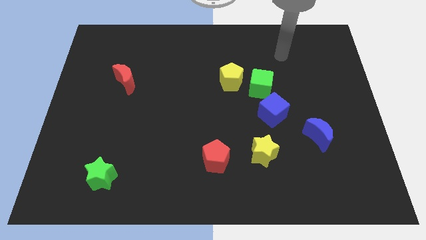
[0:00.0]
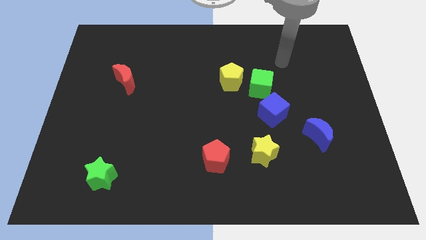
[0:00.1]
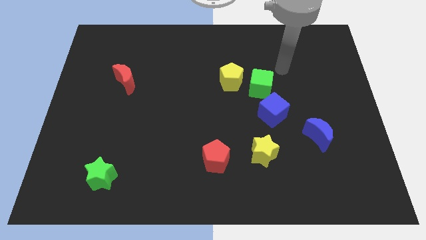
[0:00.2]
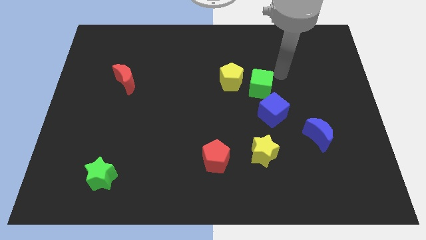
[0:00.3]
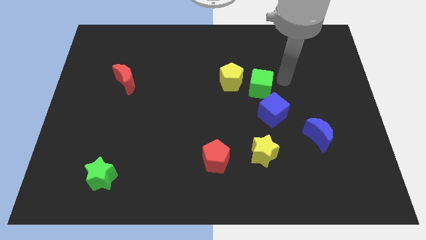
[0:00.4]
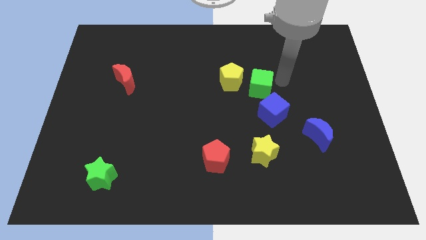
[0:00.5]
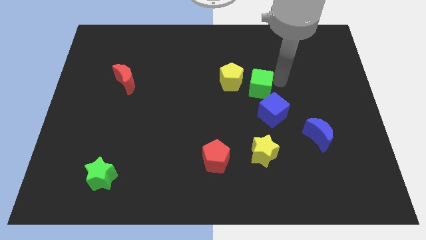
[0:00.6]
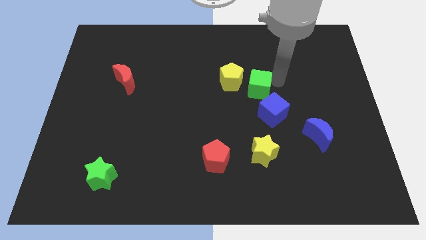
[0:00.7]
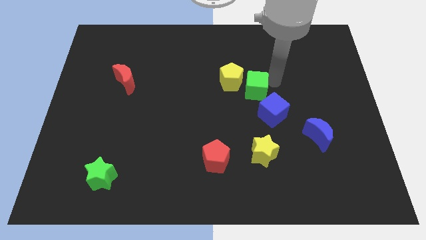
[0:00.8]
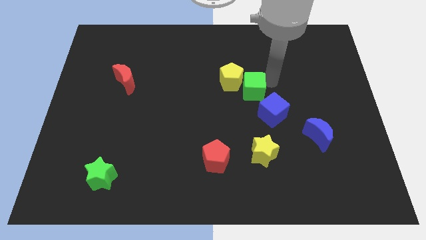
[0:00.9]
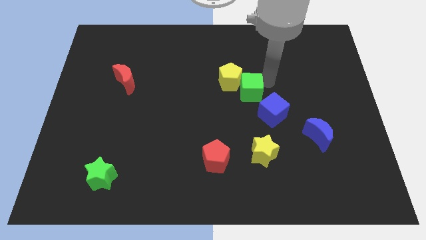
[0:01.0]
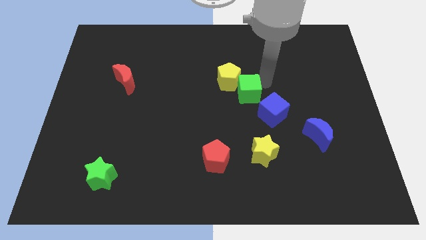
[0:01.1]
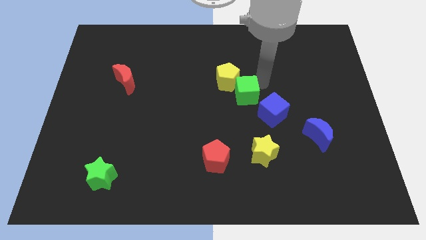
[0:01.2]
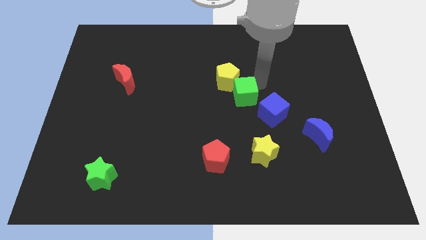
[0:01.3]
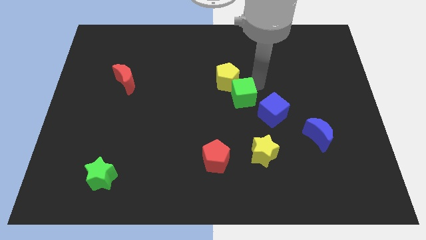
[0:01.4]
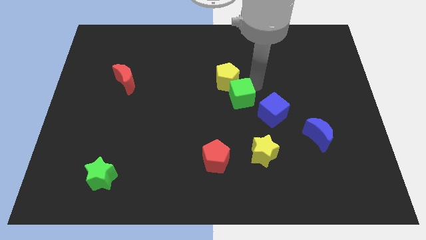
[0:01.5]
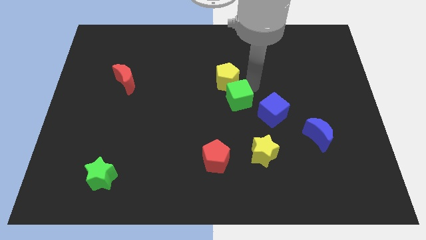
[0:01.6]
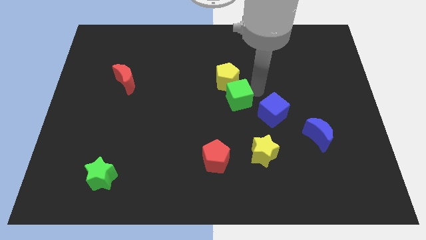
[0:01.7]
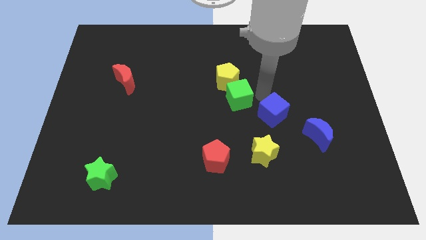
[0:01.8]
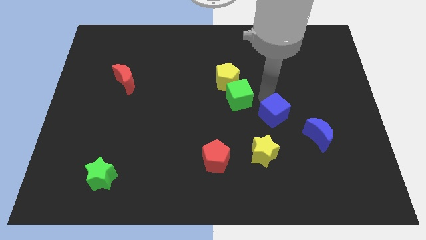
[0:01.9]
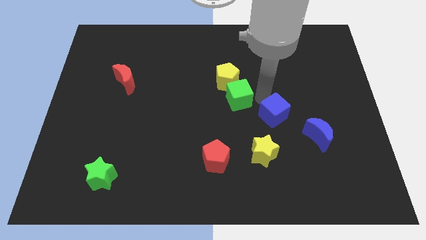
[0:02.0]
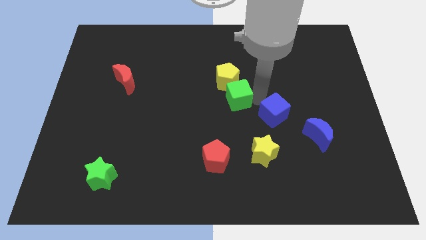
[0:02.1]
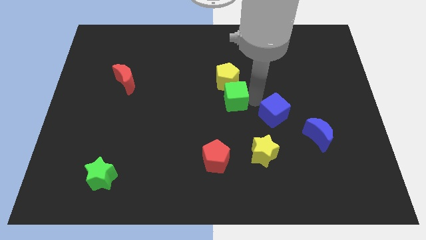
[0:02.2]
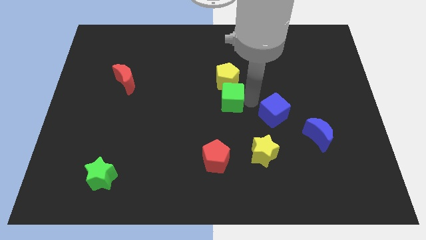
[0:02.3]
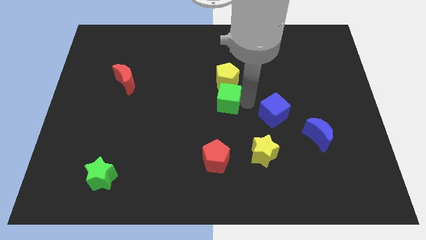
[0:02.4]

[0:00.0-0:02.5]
move the green cube a little bit left

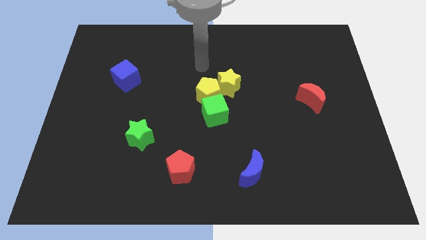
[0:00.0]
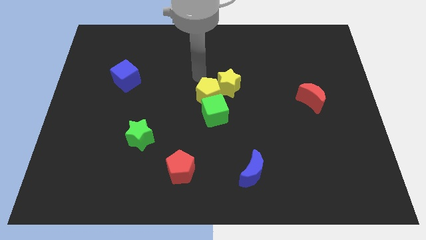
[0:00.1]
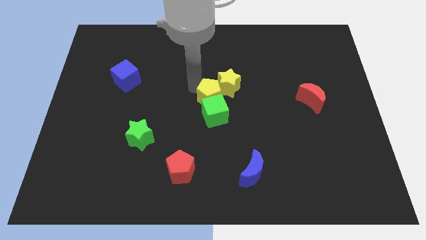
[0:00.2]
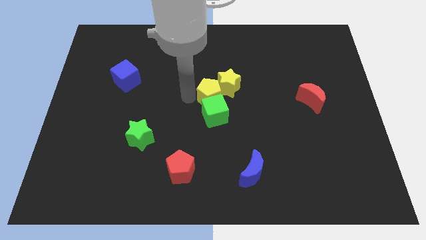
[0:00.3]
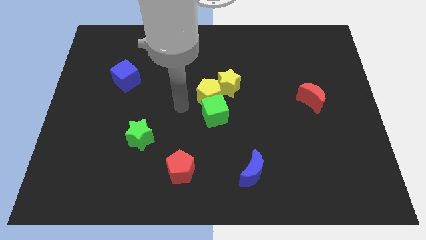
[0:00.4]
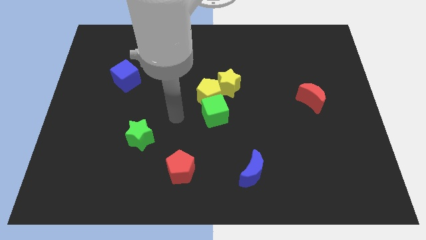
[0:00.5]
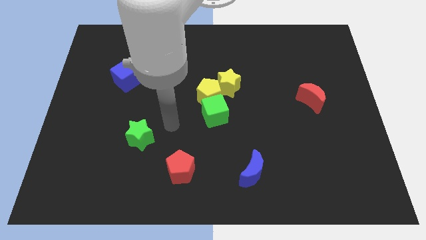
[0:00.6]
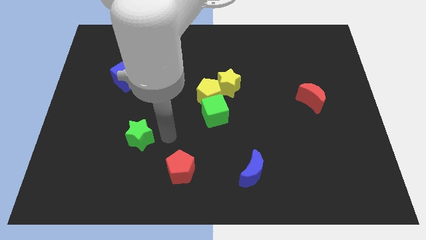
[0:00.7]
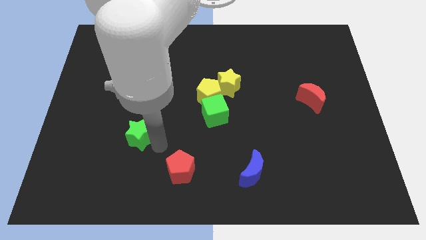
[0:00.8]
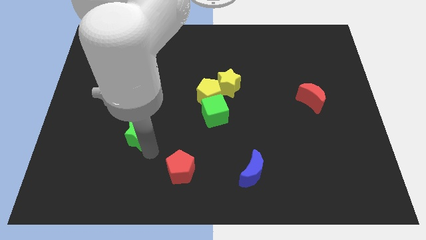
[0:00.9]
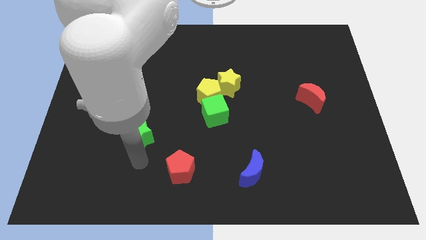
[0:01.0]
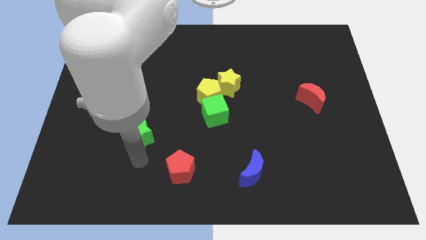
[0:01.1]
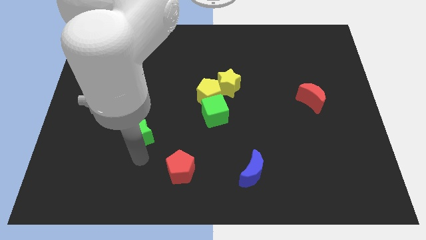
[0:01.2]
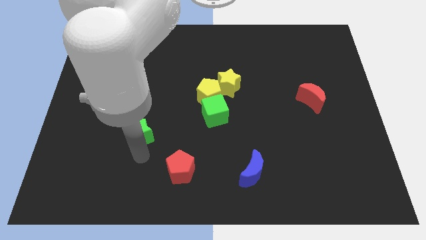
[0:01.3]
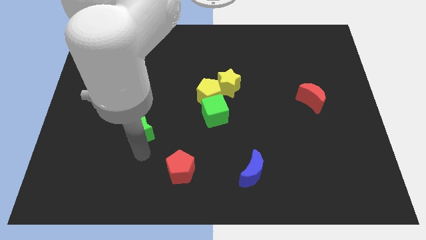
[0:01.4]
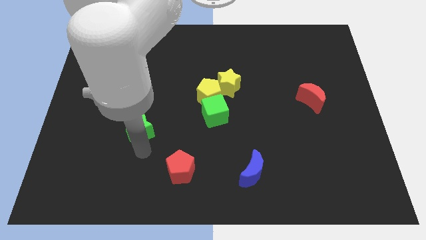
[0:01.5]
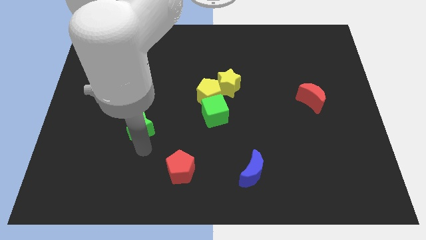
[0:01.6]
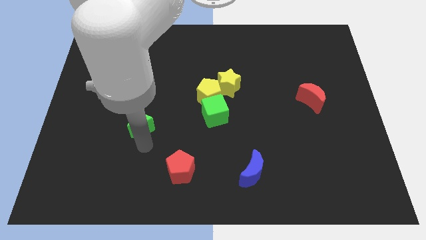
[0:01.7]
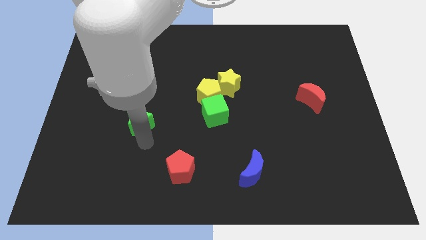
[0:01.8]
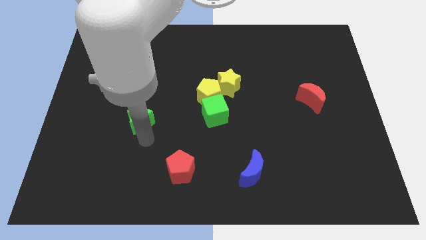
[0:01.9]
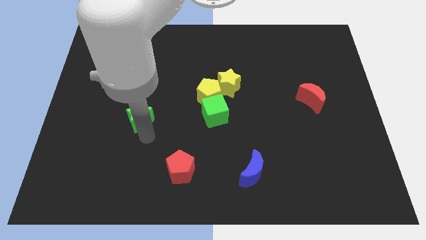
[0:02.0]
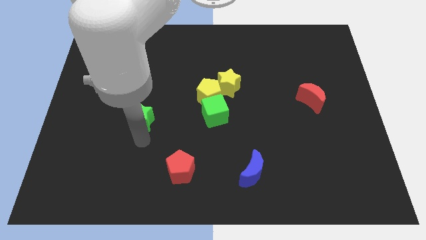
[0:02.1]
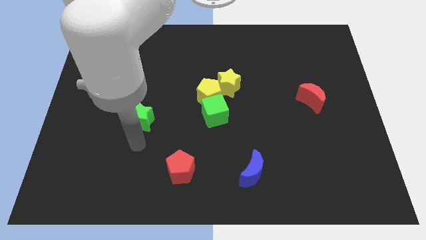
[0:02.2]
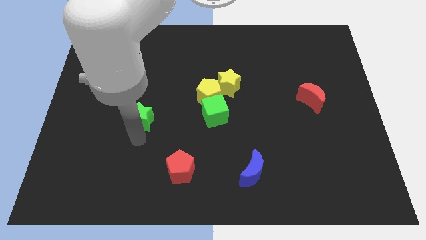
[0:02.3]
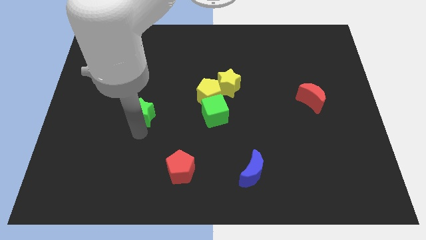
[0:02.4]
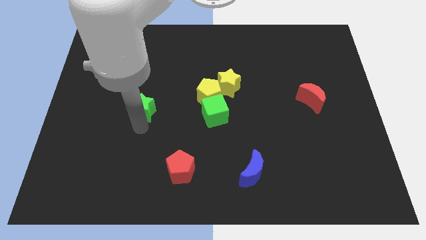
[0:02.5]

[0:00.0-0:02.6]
move the green star slightly upwards

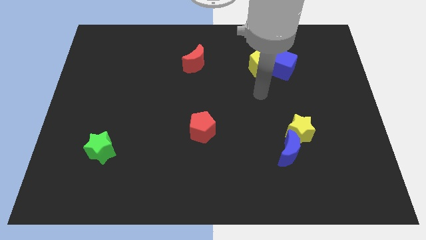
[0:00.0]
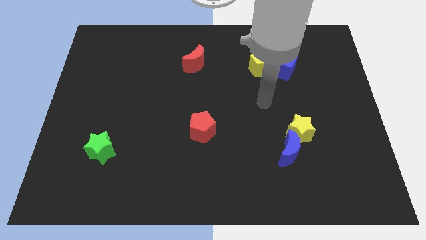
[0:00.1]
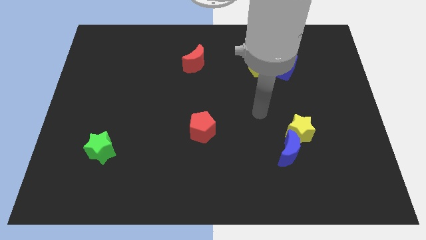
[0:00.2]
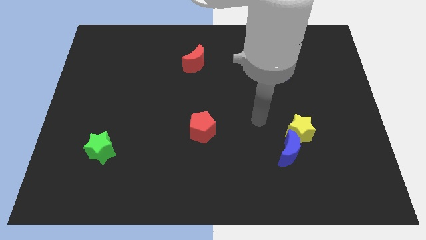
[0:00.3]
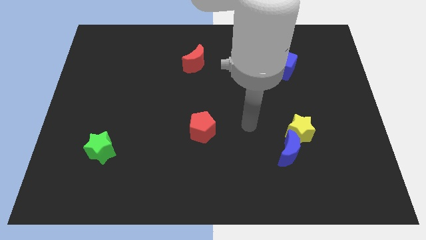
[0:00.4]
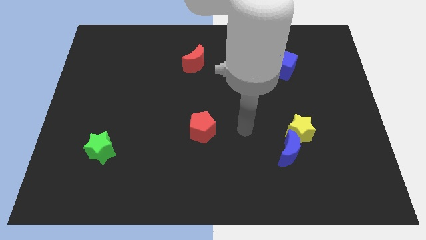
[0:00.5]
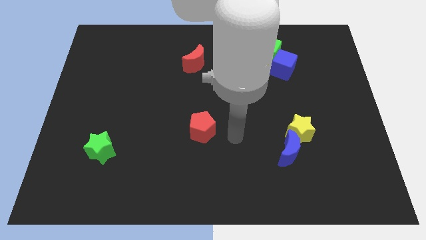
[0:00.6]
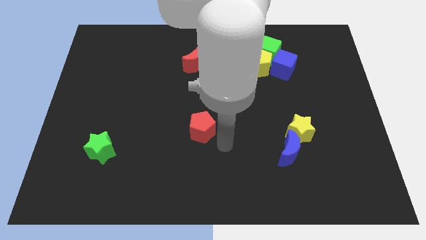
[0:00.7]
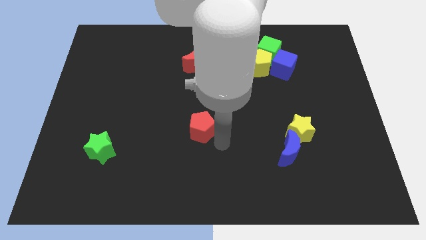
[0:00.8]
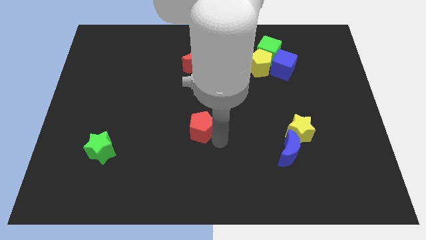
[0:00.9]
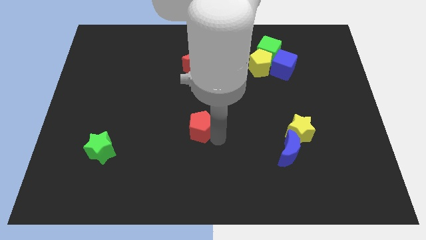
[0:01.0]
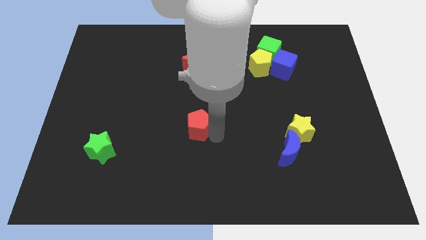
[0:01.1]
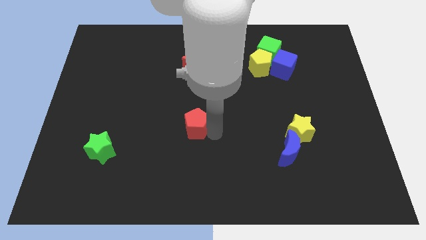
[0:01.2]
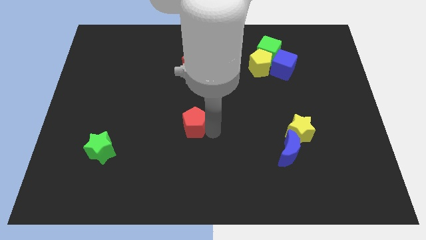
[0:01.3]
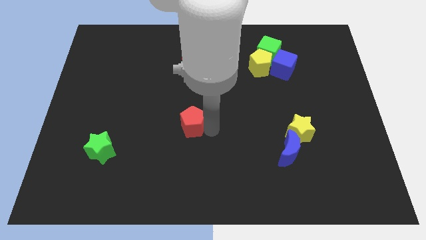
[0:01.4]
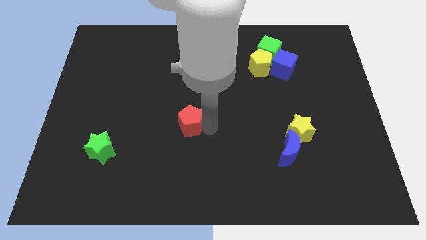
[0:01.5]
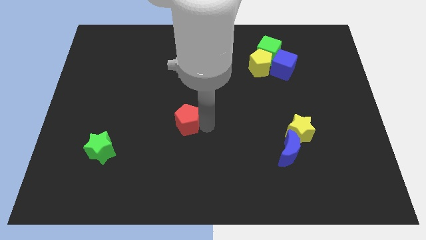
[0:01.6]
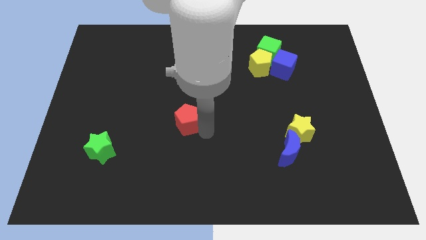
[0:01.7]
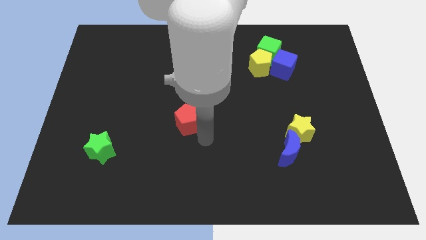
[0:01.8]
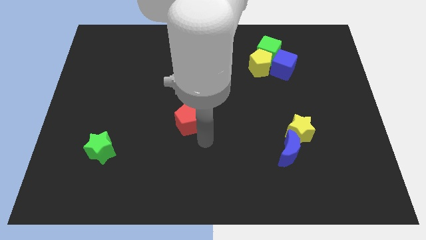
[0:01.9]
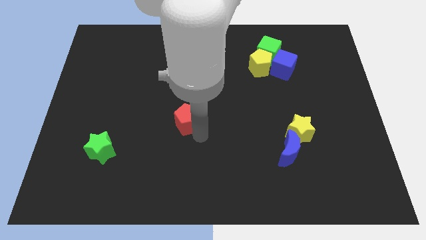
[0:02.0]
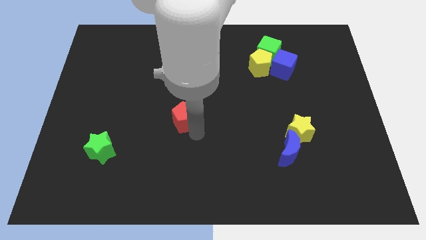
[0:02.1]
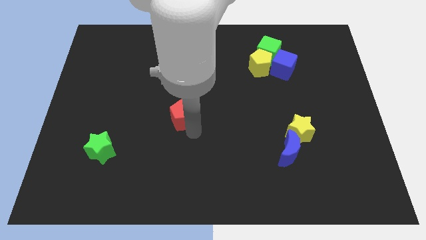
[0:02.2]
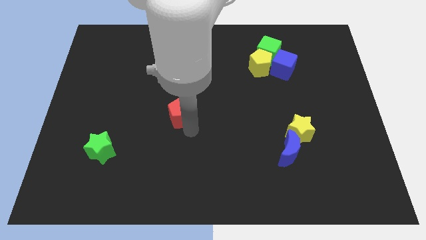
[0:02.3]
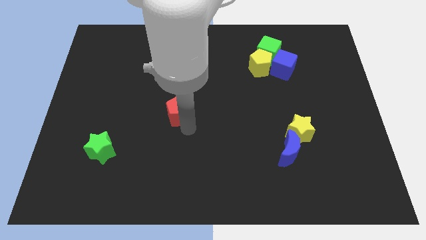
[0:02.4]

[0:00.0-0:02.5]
push the red pentagon upwards and then left slightly

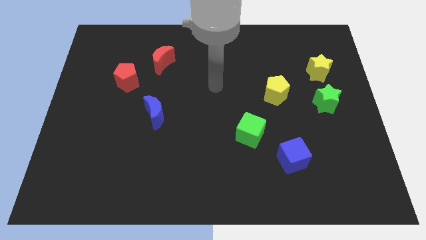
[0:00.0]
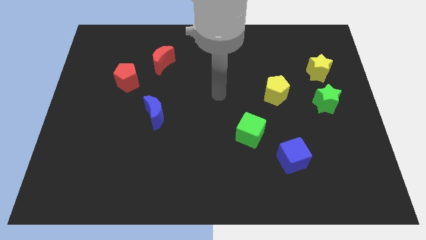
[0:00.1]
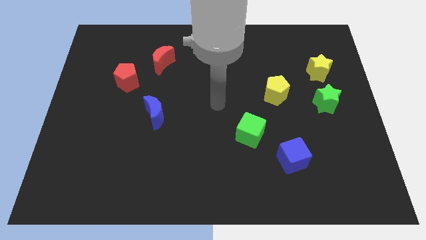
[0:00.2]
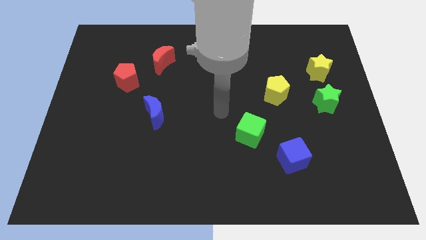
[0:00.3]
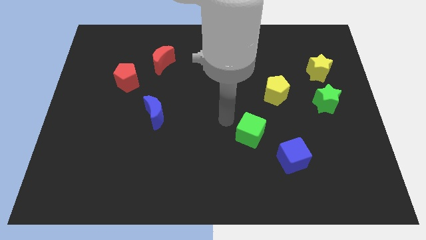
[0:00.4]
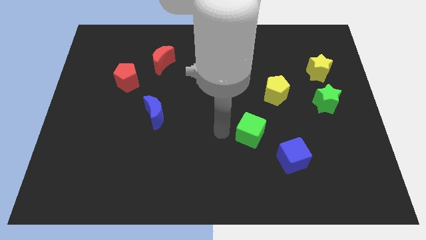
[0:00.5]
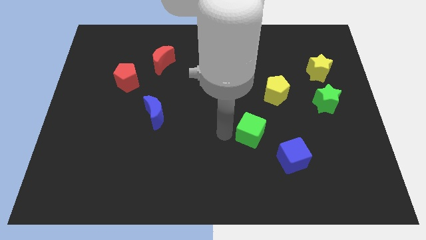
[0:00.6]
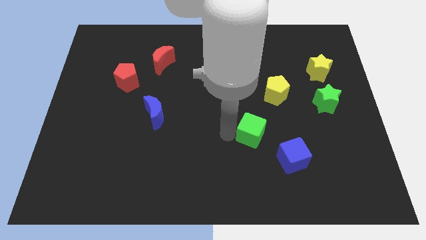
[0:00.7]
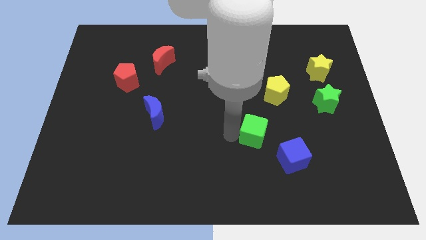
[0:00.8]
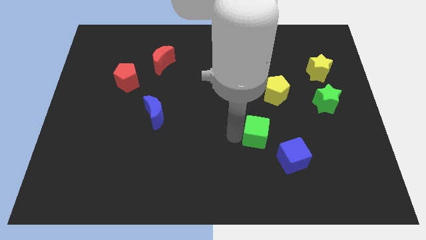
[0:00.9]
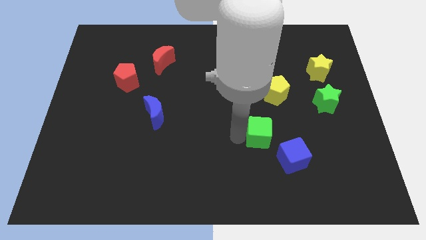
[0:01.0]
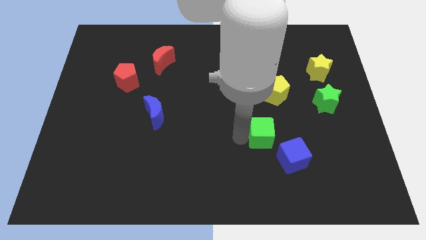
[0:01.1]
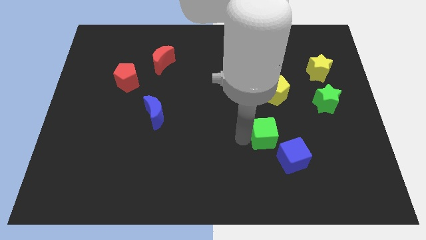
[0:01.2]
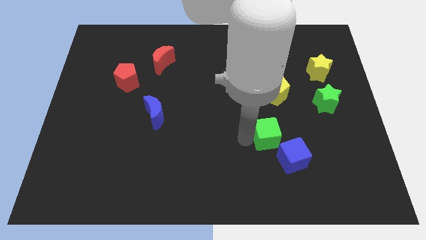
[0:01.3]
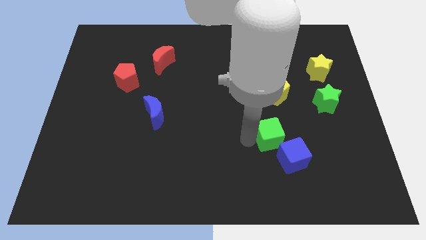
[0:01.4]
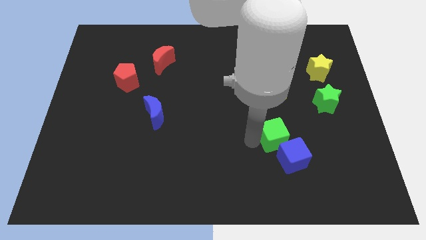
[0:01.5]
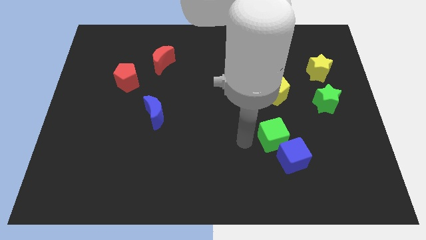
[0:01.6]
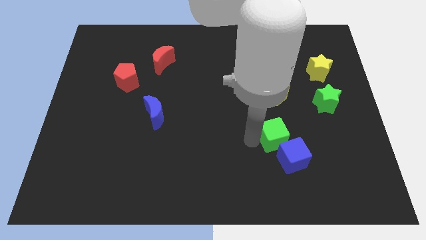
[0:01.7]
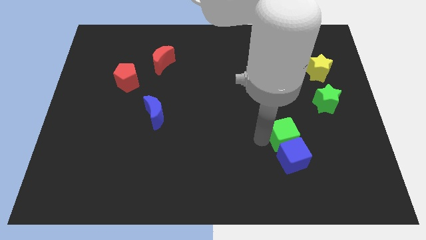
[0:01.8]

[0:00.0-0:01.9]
slightly move the green cube to the right
